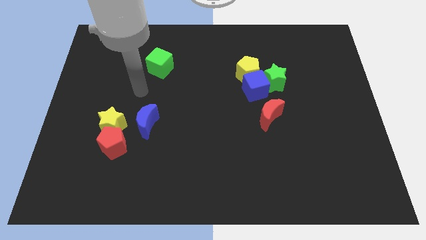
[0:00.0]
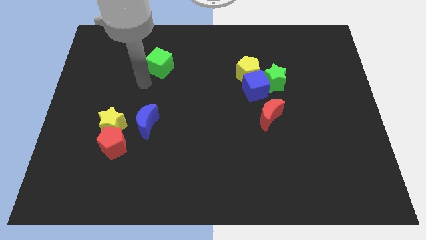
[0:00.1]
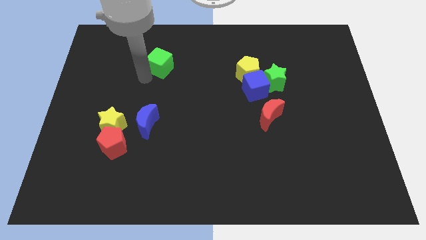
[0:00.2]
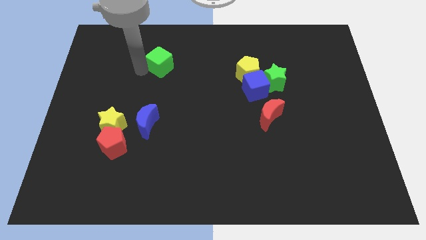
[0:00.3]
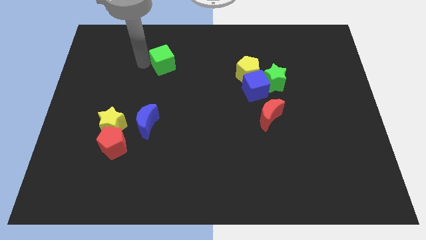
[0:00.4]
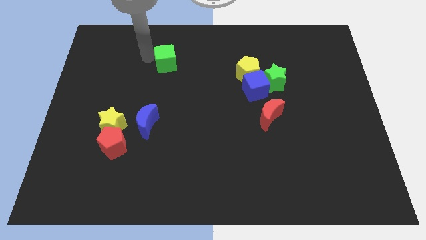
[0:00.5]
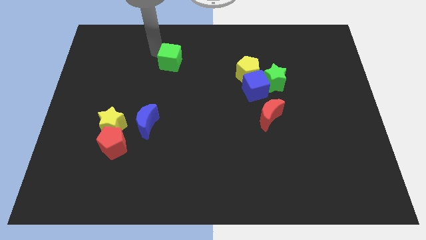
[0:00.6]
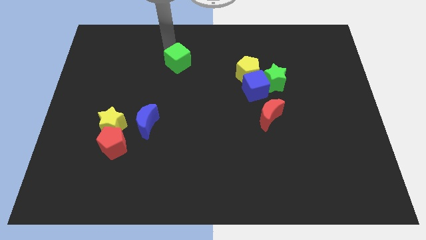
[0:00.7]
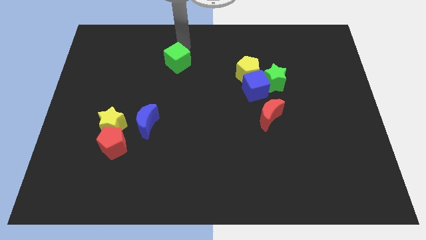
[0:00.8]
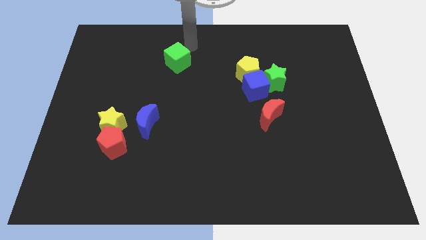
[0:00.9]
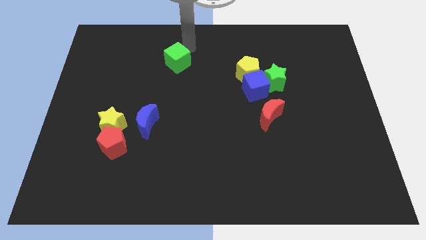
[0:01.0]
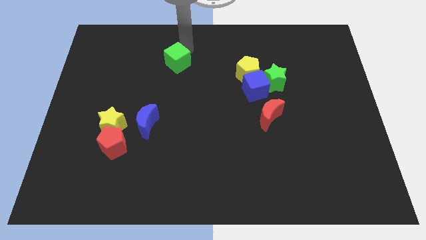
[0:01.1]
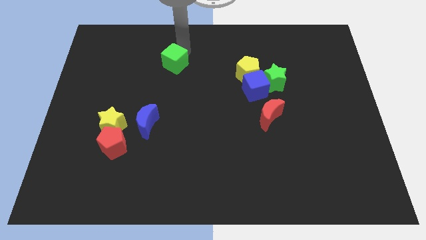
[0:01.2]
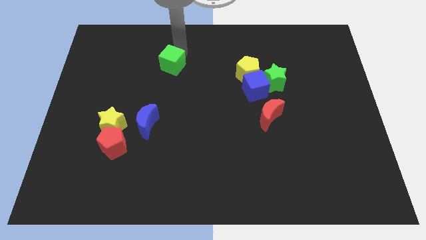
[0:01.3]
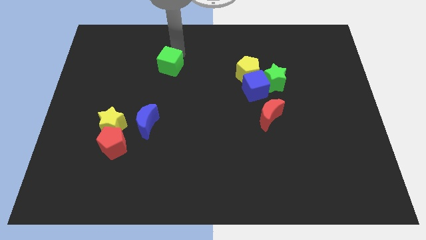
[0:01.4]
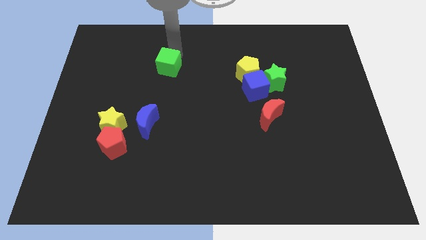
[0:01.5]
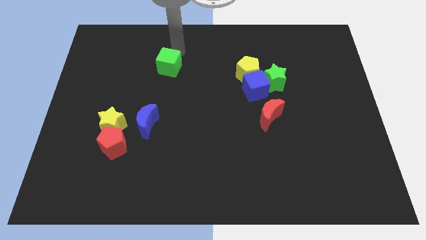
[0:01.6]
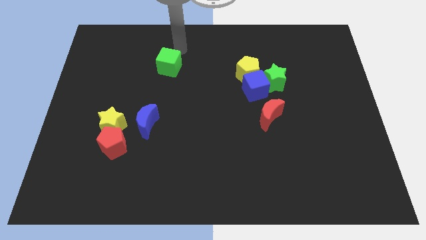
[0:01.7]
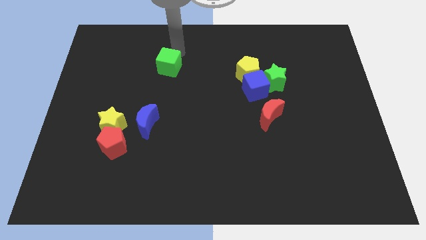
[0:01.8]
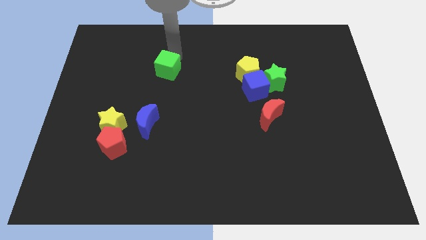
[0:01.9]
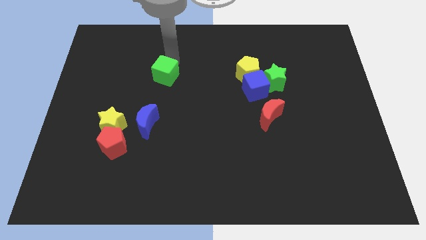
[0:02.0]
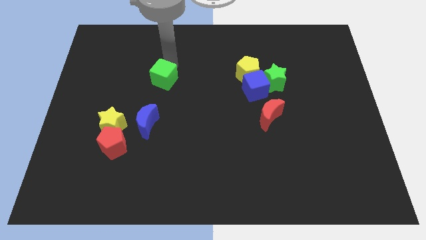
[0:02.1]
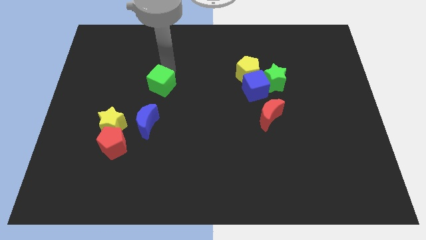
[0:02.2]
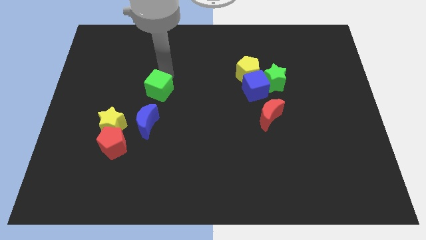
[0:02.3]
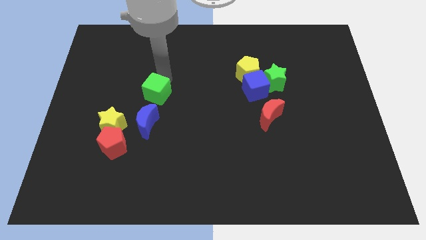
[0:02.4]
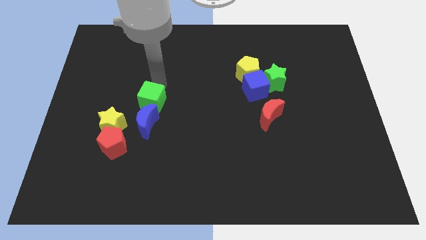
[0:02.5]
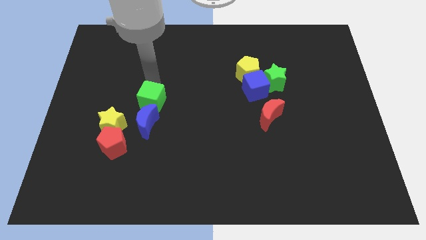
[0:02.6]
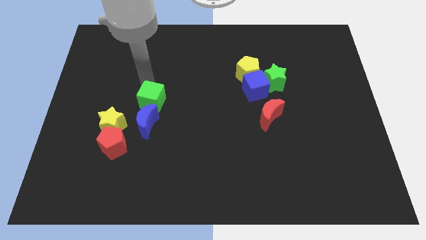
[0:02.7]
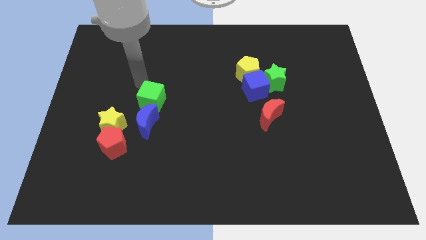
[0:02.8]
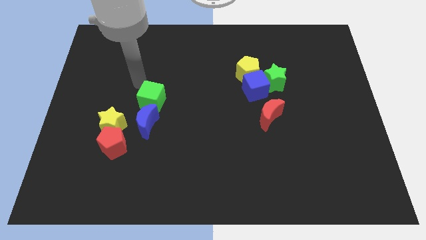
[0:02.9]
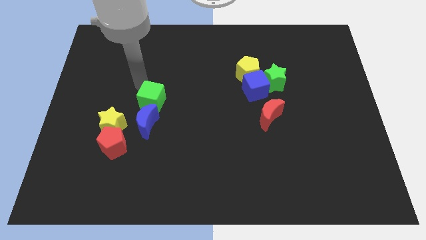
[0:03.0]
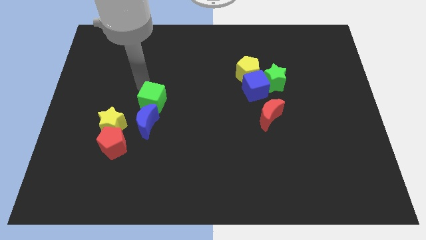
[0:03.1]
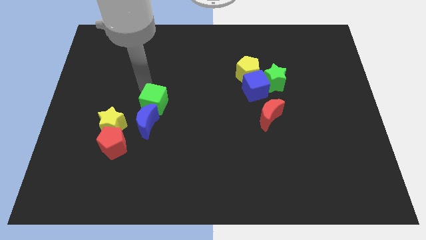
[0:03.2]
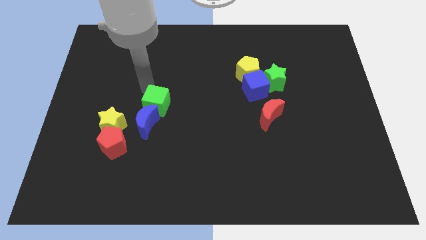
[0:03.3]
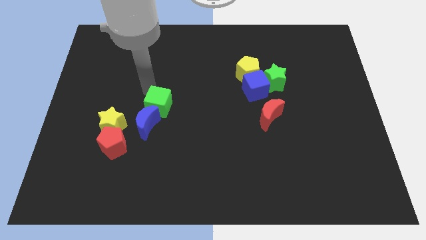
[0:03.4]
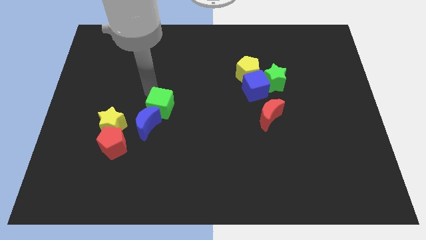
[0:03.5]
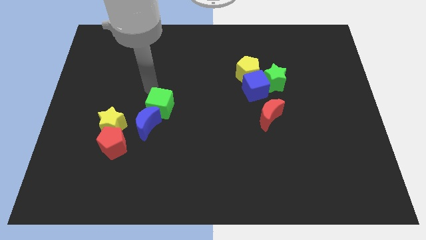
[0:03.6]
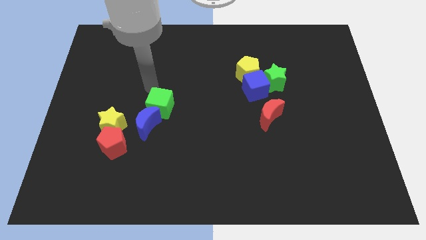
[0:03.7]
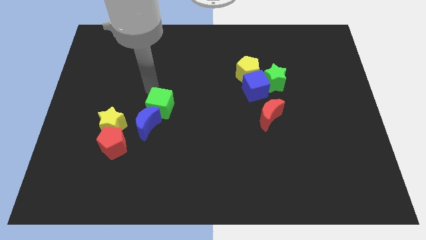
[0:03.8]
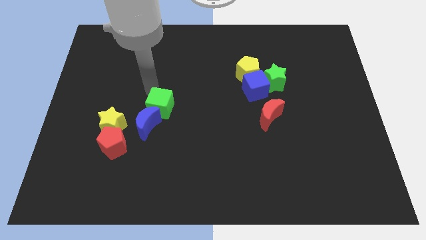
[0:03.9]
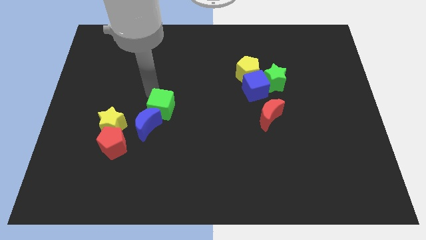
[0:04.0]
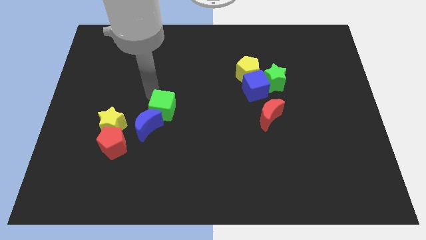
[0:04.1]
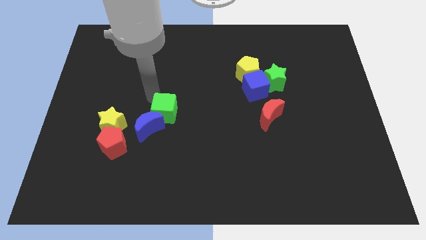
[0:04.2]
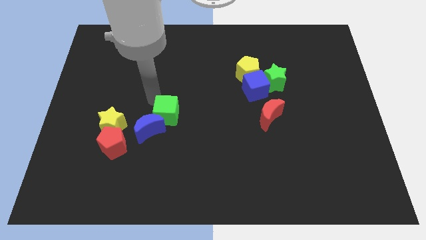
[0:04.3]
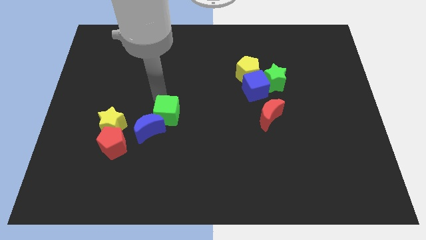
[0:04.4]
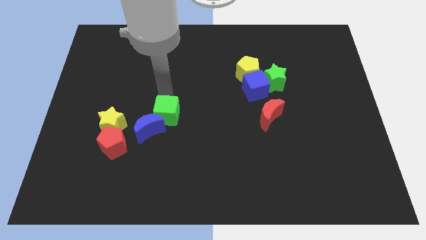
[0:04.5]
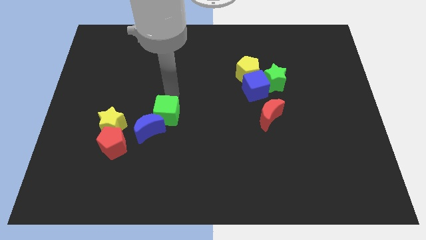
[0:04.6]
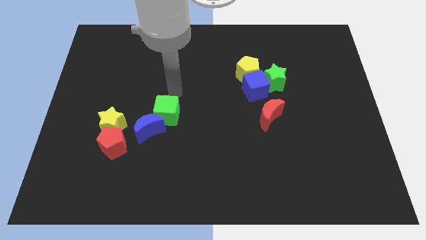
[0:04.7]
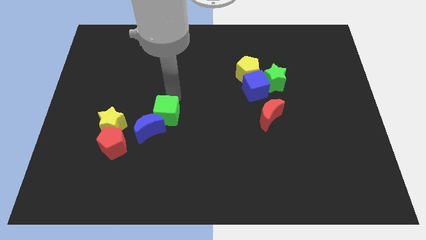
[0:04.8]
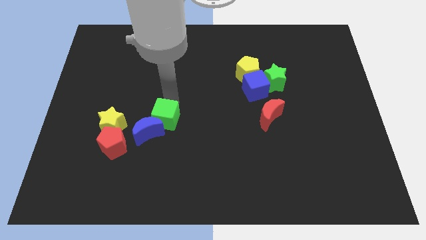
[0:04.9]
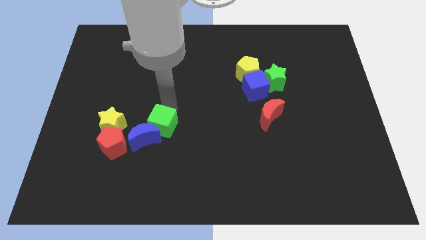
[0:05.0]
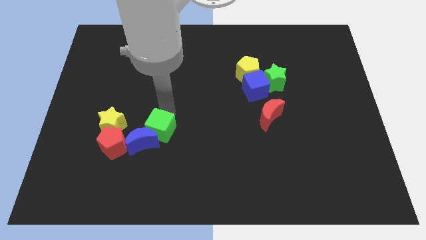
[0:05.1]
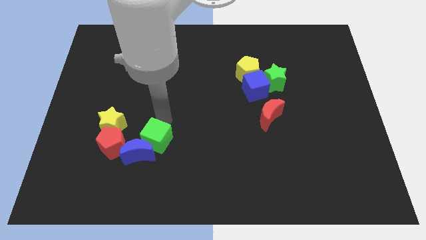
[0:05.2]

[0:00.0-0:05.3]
push the green cube down

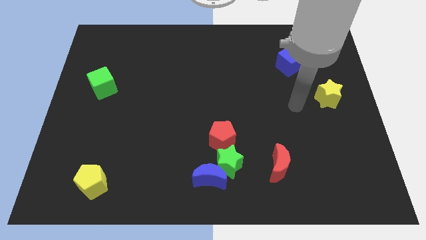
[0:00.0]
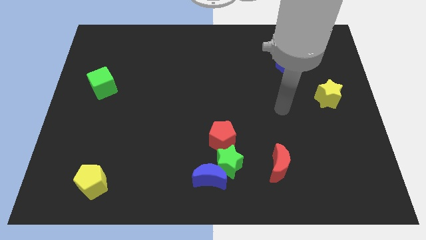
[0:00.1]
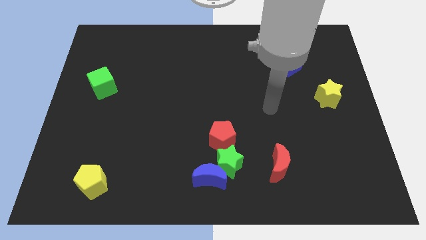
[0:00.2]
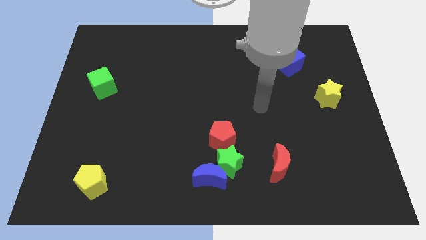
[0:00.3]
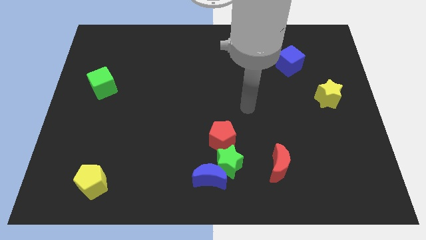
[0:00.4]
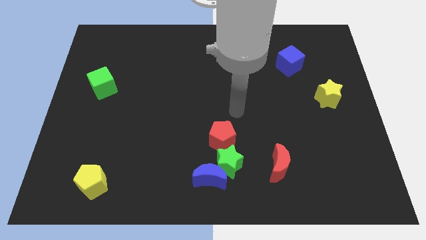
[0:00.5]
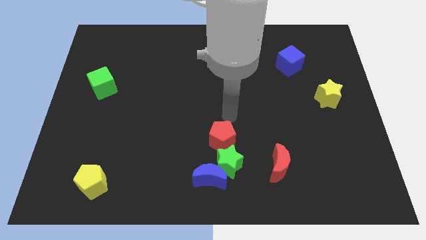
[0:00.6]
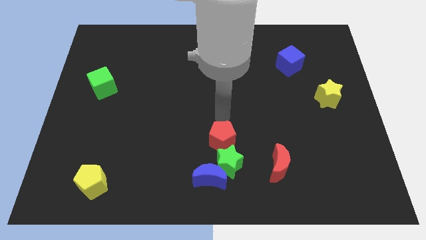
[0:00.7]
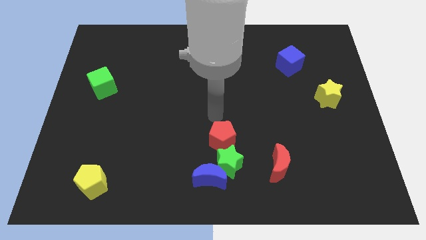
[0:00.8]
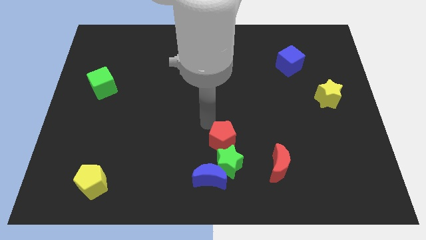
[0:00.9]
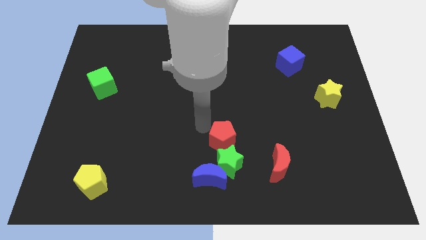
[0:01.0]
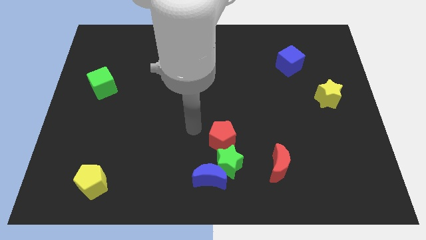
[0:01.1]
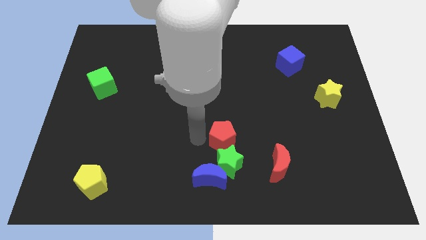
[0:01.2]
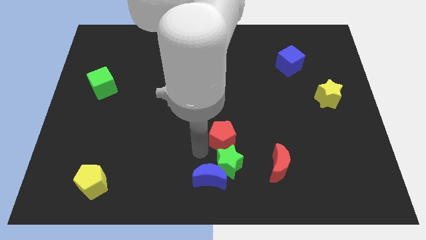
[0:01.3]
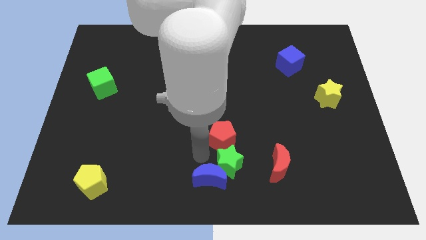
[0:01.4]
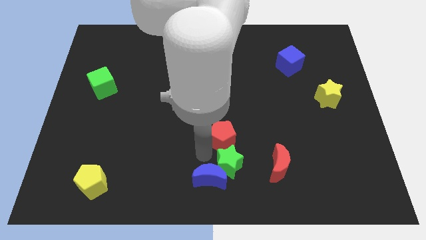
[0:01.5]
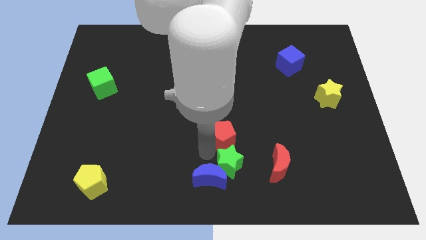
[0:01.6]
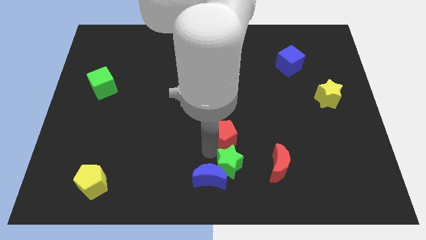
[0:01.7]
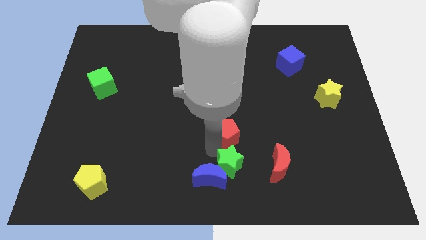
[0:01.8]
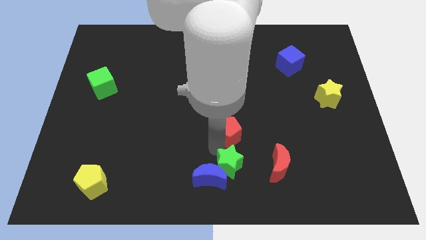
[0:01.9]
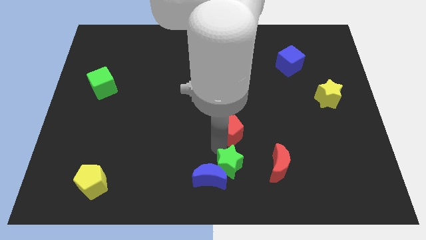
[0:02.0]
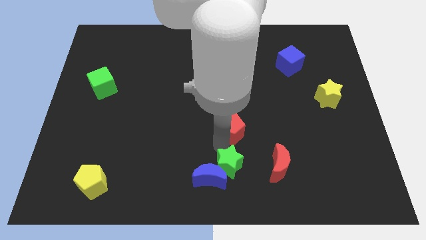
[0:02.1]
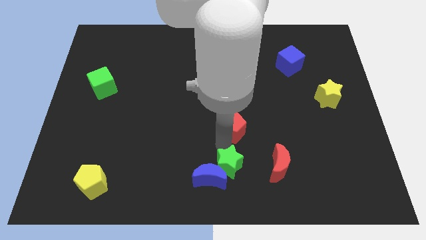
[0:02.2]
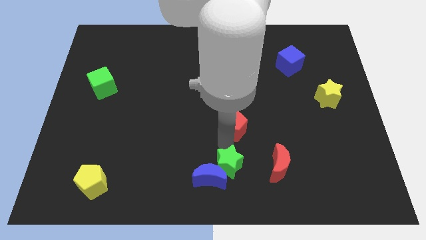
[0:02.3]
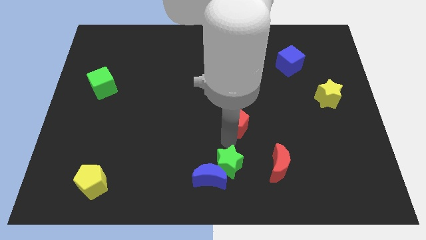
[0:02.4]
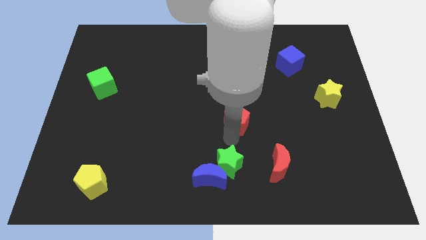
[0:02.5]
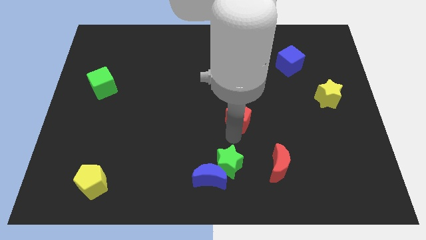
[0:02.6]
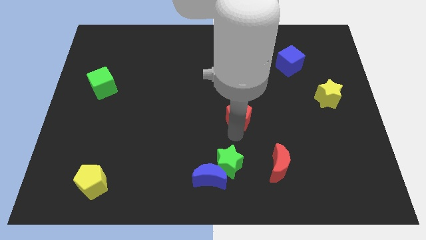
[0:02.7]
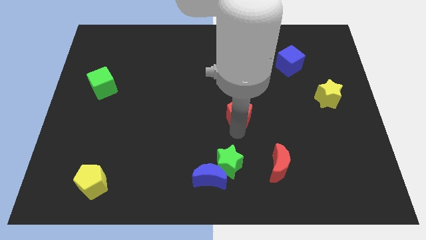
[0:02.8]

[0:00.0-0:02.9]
slightly move the red pentagon upwards and then right
